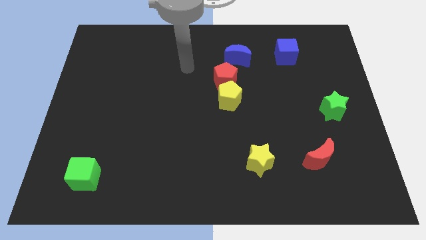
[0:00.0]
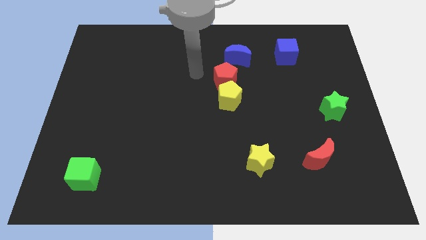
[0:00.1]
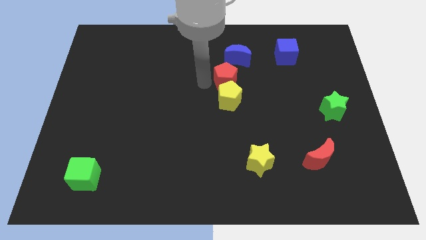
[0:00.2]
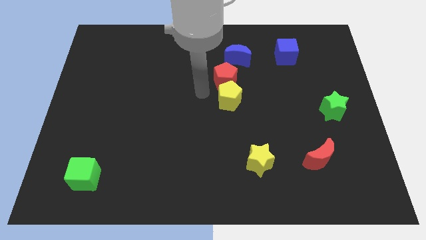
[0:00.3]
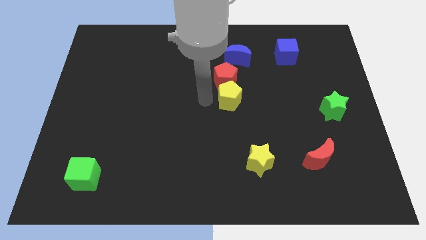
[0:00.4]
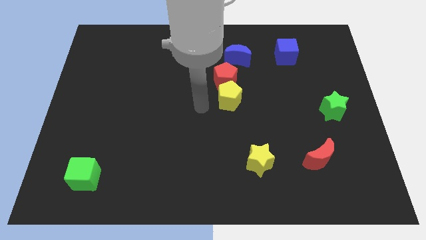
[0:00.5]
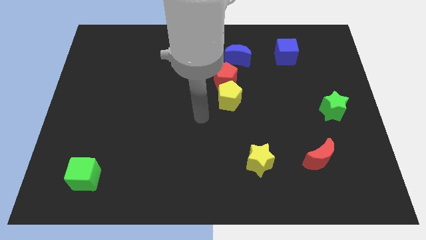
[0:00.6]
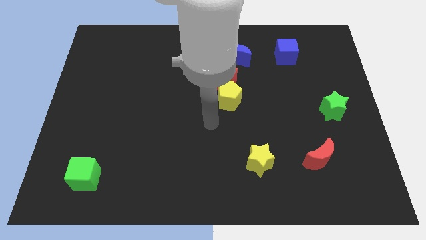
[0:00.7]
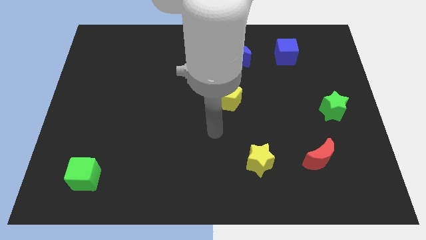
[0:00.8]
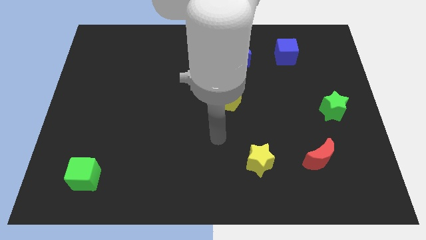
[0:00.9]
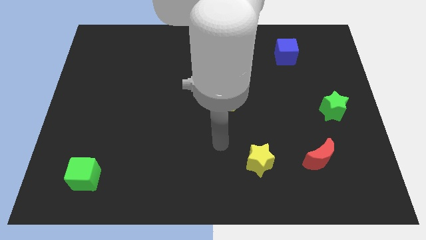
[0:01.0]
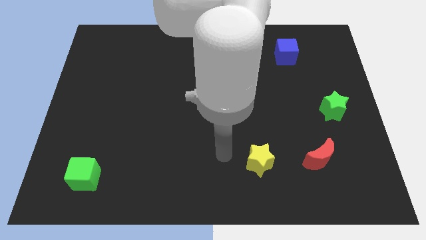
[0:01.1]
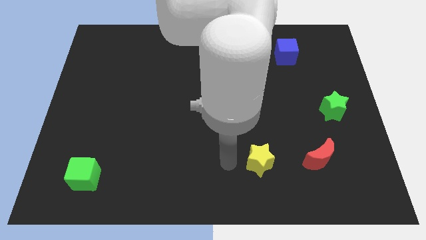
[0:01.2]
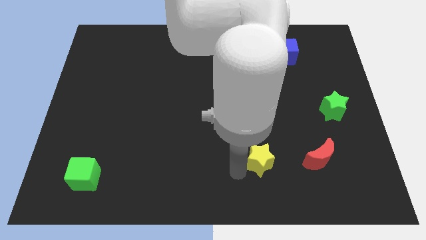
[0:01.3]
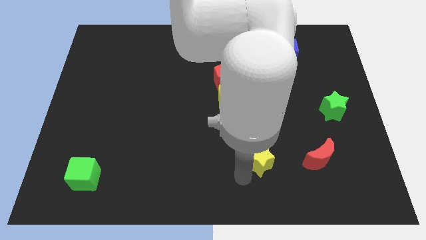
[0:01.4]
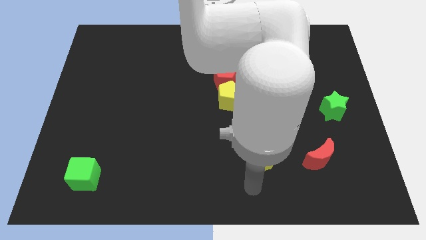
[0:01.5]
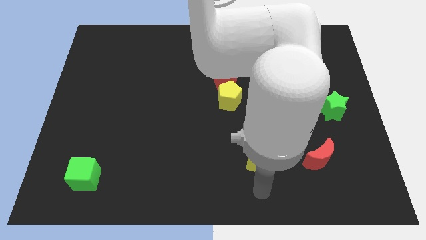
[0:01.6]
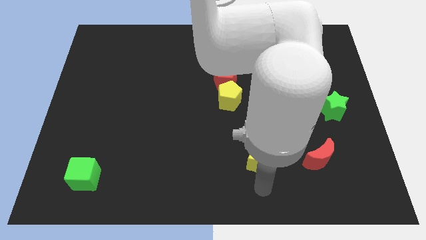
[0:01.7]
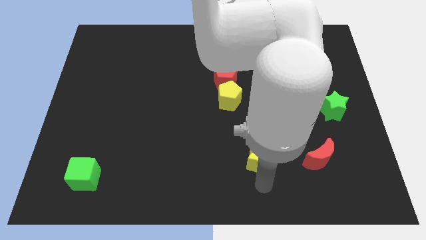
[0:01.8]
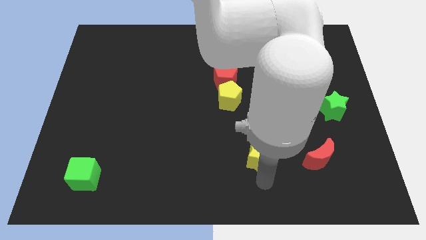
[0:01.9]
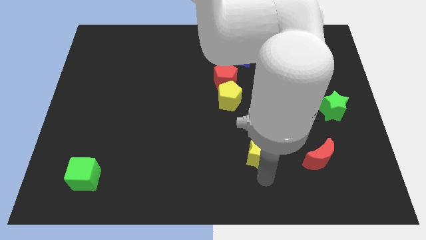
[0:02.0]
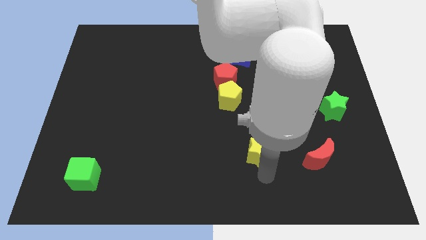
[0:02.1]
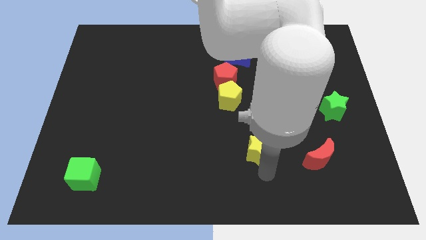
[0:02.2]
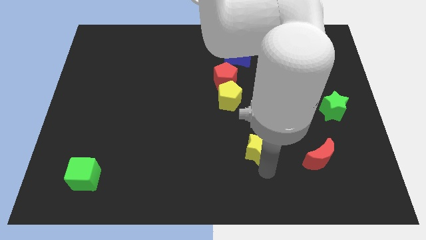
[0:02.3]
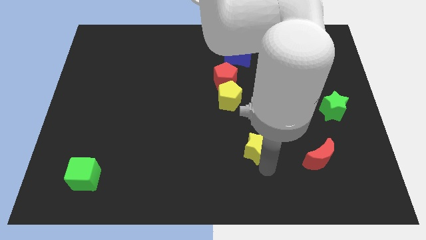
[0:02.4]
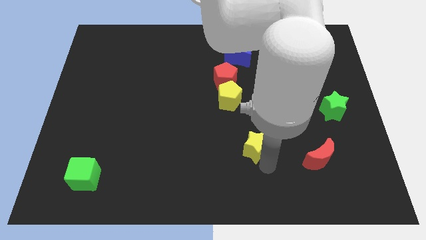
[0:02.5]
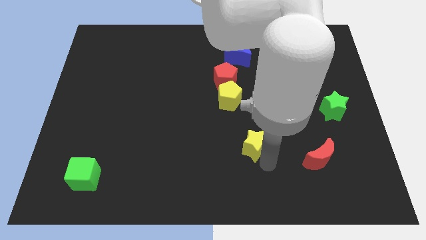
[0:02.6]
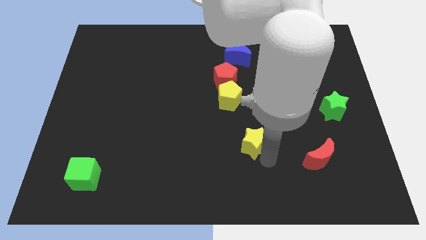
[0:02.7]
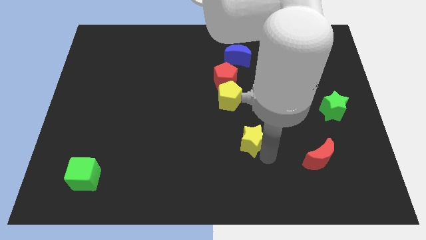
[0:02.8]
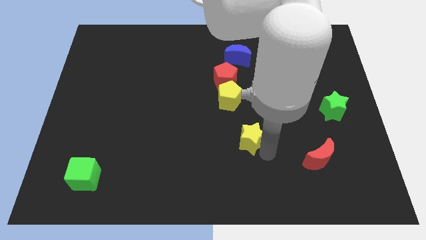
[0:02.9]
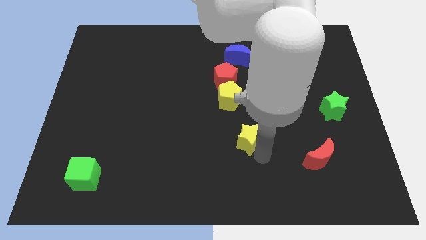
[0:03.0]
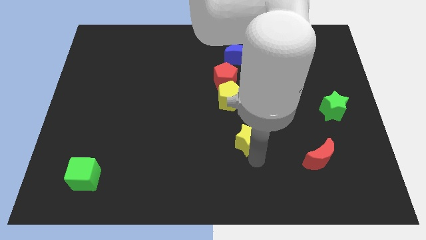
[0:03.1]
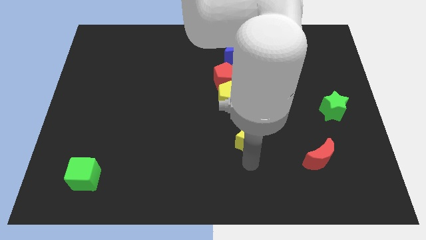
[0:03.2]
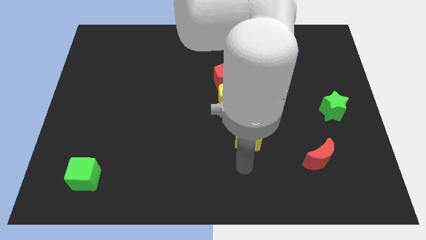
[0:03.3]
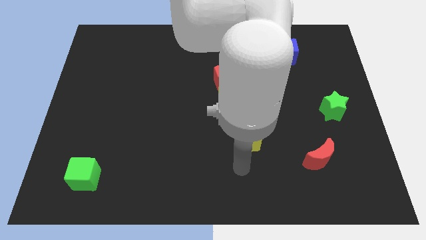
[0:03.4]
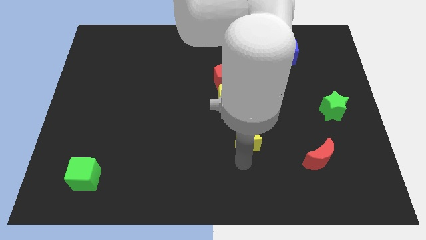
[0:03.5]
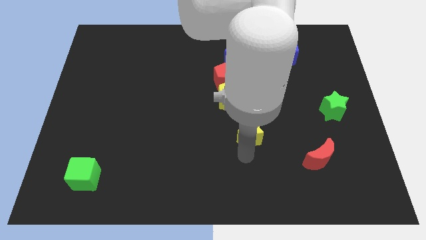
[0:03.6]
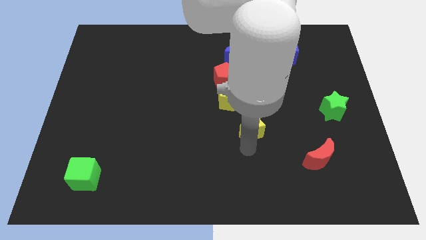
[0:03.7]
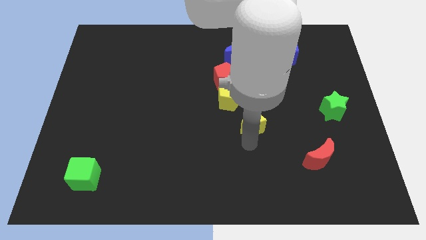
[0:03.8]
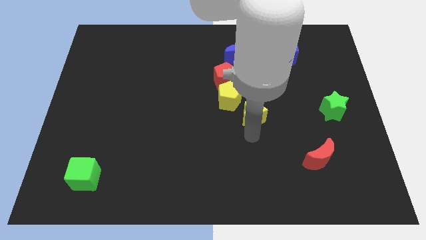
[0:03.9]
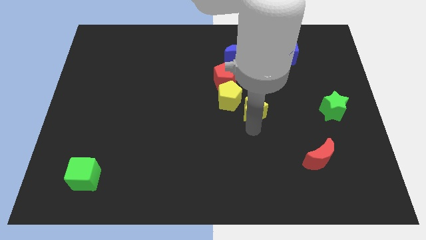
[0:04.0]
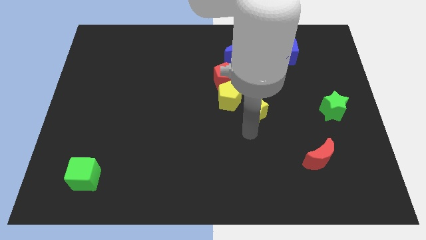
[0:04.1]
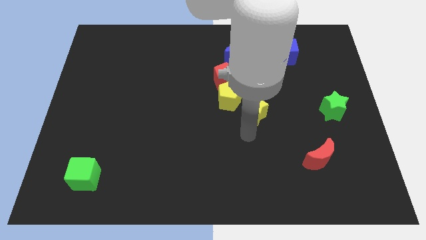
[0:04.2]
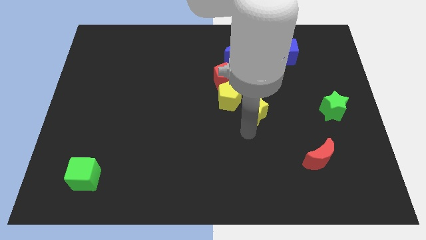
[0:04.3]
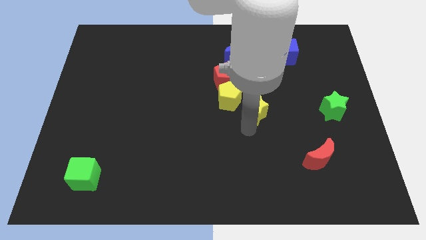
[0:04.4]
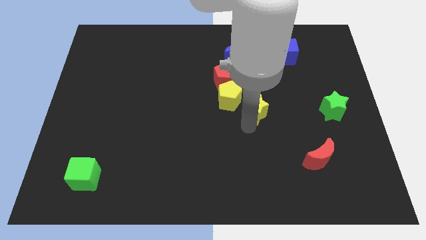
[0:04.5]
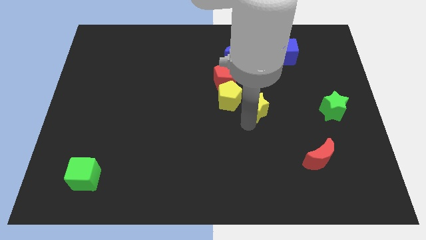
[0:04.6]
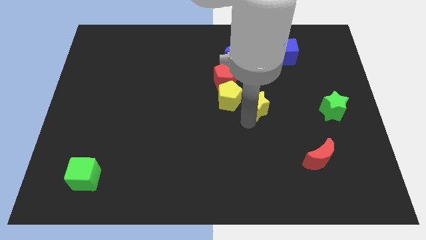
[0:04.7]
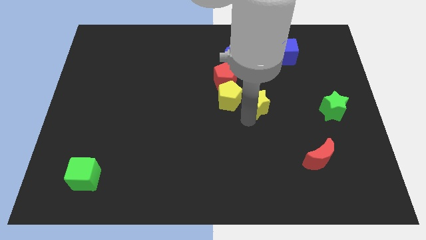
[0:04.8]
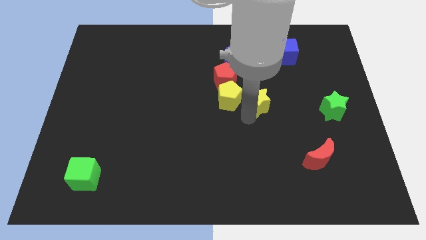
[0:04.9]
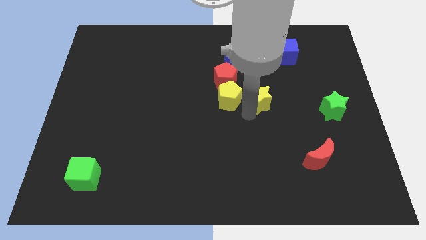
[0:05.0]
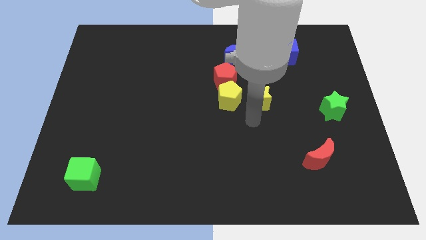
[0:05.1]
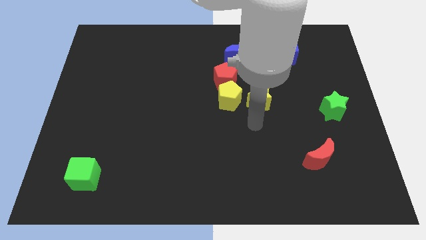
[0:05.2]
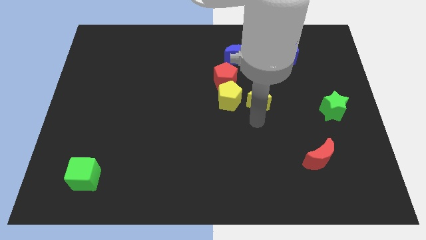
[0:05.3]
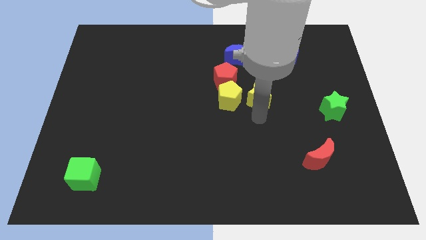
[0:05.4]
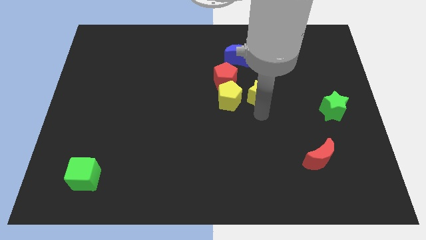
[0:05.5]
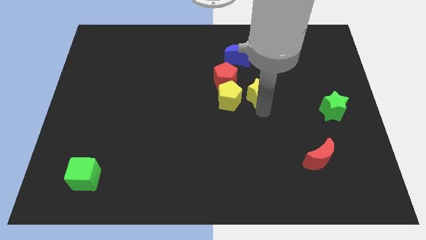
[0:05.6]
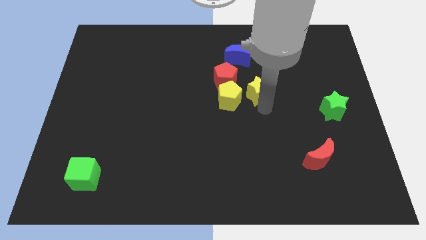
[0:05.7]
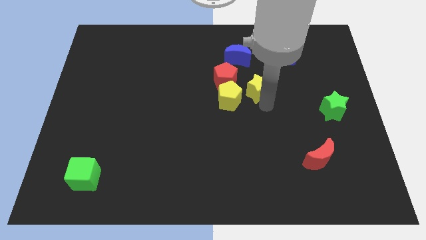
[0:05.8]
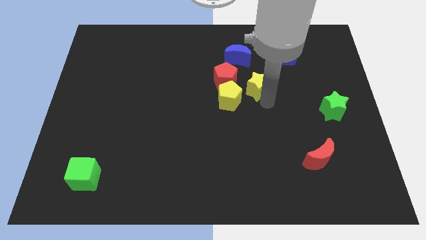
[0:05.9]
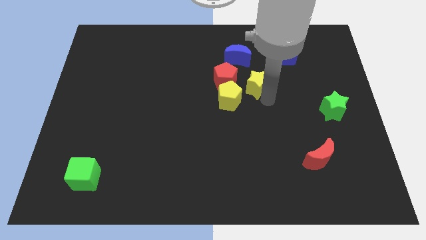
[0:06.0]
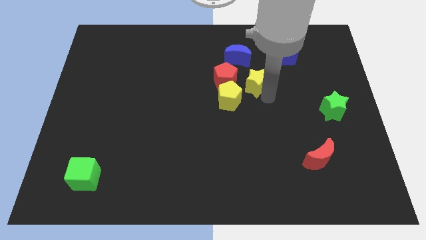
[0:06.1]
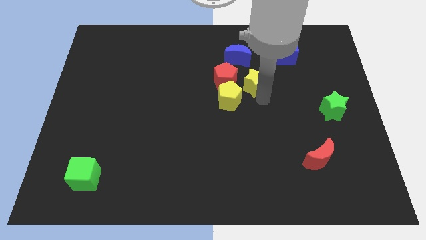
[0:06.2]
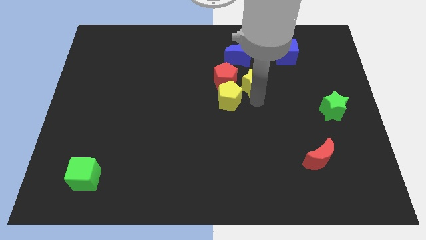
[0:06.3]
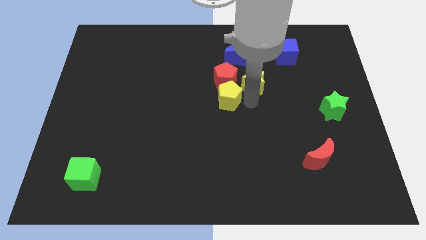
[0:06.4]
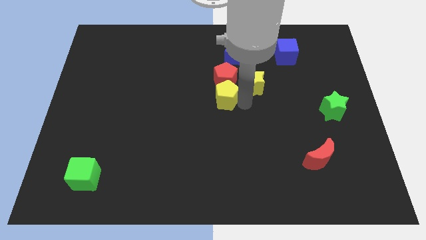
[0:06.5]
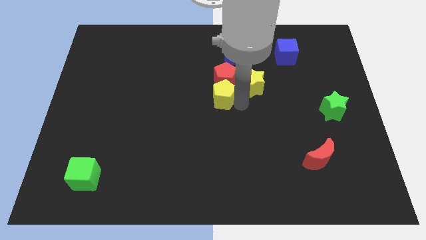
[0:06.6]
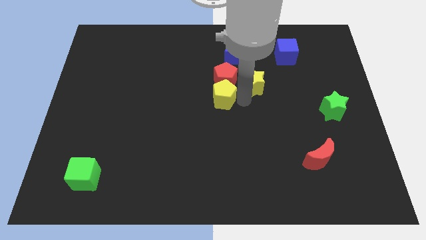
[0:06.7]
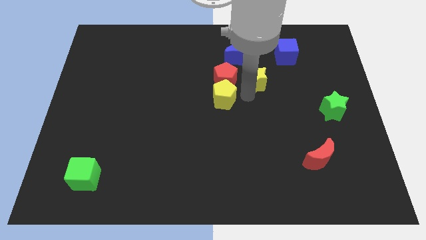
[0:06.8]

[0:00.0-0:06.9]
slide the yellow star to the bottom left side of the blue cube

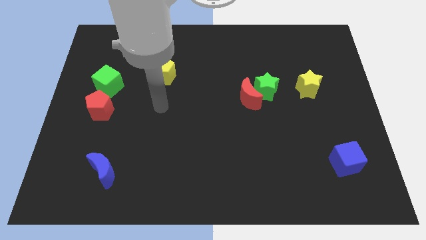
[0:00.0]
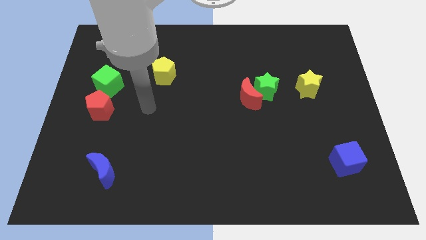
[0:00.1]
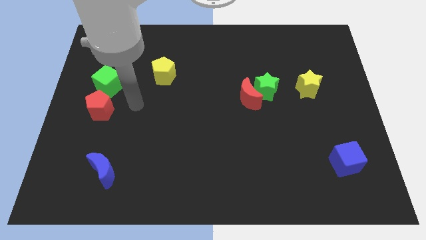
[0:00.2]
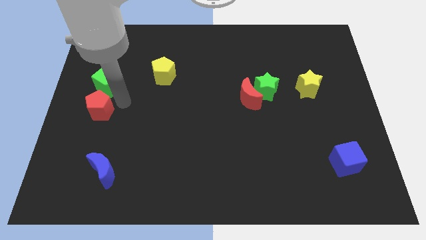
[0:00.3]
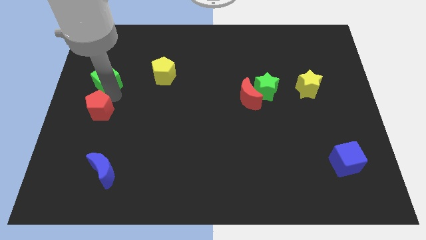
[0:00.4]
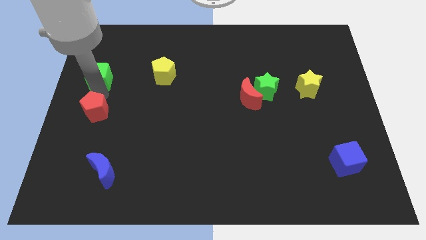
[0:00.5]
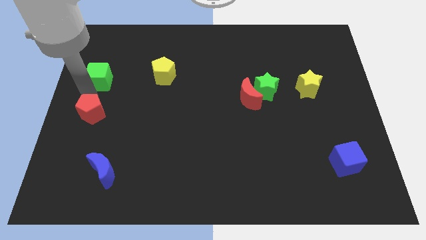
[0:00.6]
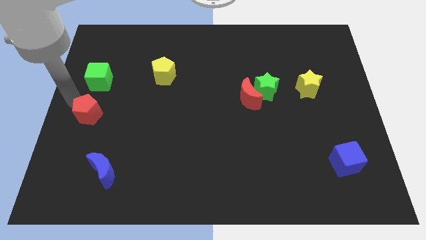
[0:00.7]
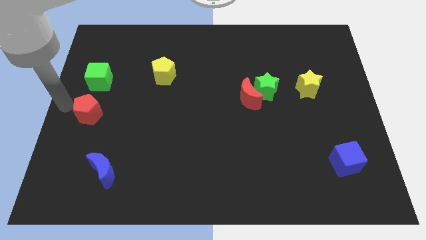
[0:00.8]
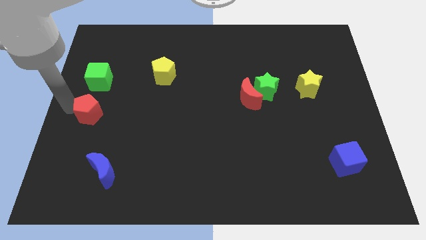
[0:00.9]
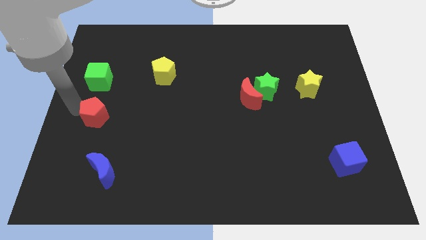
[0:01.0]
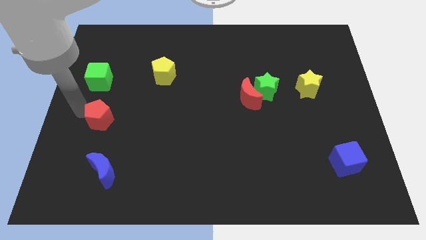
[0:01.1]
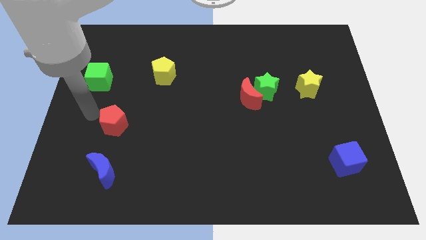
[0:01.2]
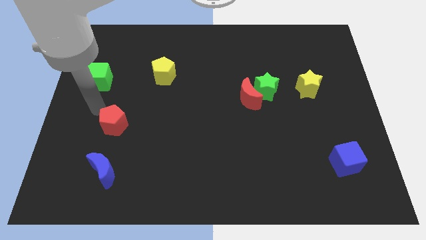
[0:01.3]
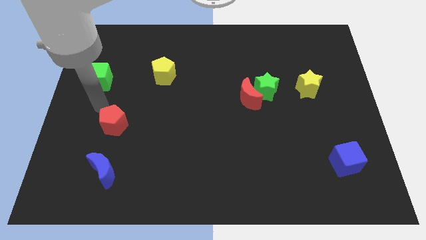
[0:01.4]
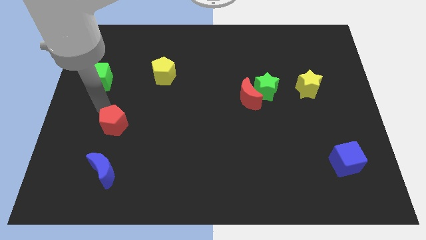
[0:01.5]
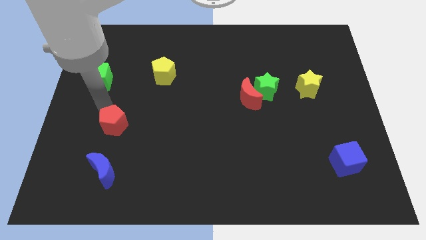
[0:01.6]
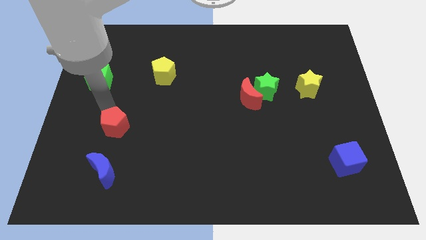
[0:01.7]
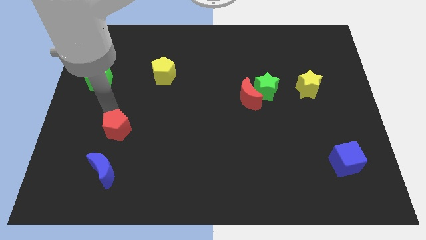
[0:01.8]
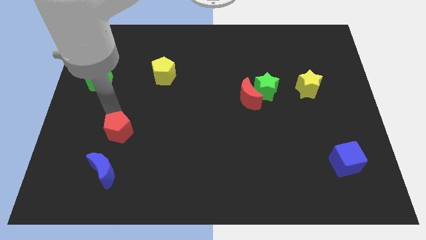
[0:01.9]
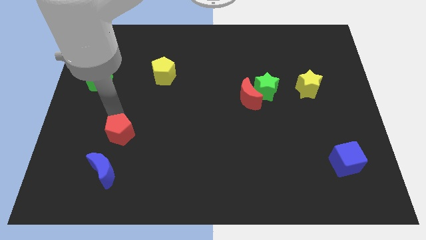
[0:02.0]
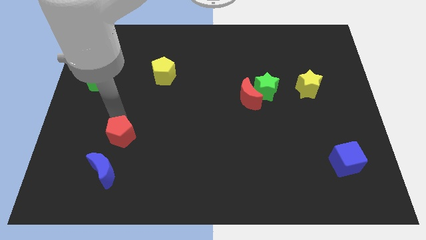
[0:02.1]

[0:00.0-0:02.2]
put the red pentagon diagonally up and to the right of the blue moon
